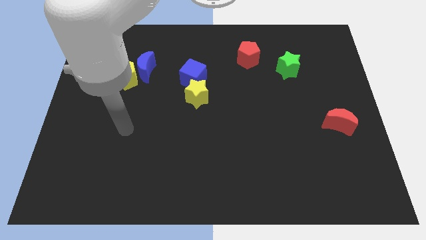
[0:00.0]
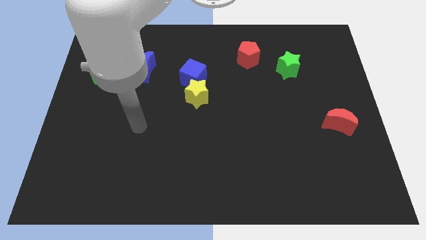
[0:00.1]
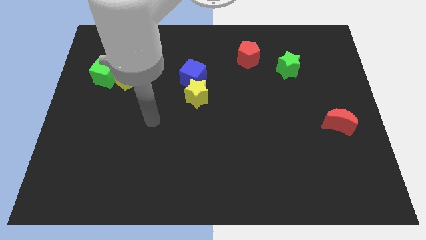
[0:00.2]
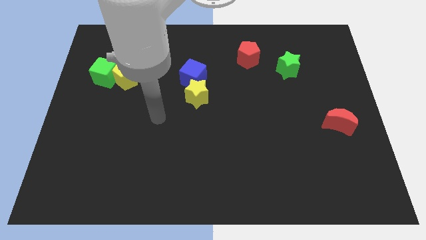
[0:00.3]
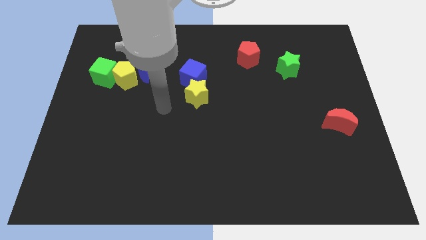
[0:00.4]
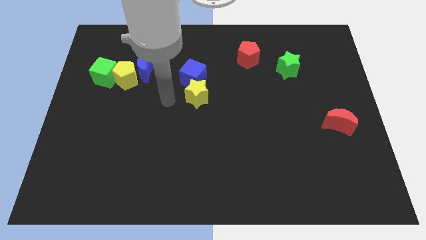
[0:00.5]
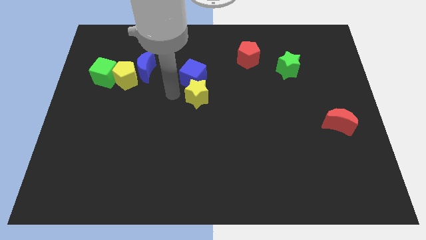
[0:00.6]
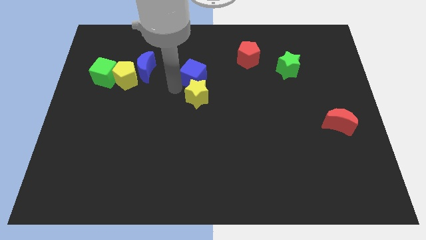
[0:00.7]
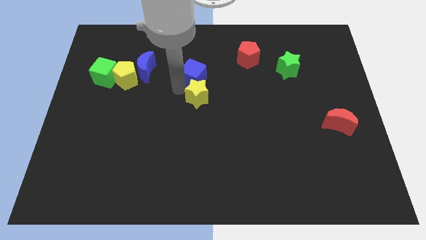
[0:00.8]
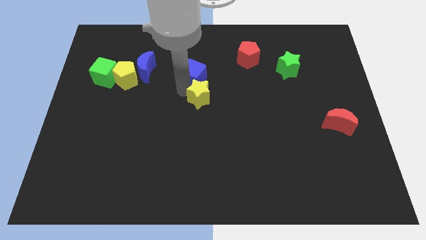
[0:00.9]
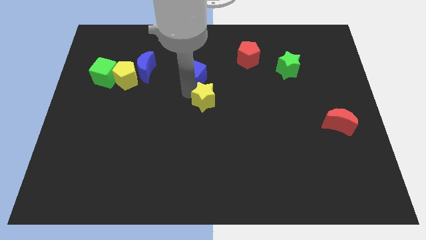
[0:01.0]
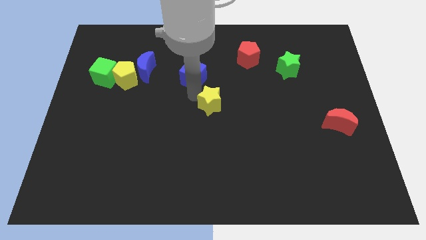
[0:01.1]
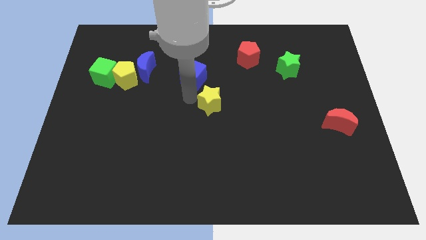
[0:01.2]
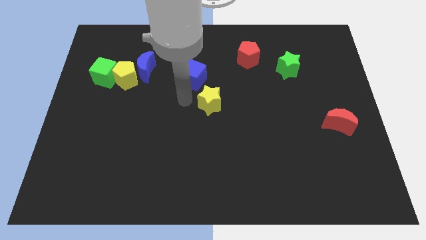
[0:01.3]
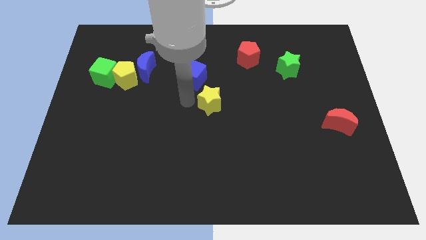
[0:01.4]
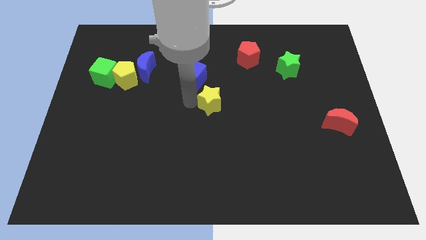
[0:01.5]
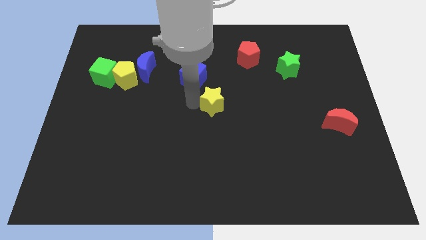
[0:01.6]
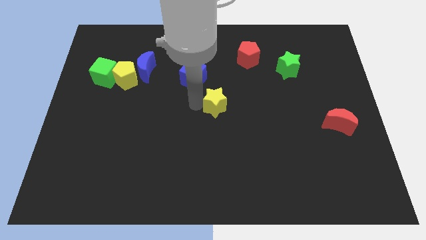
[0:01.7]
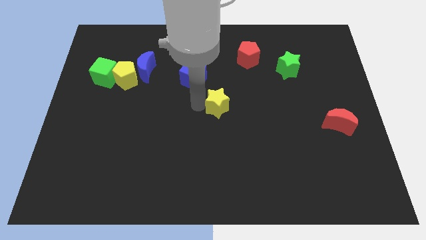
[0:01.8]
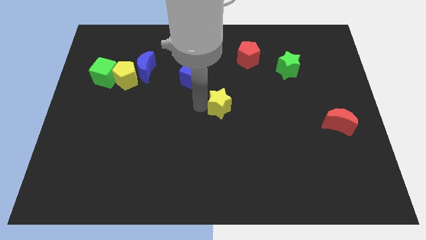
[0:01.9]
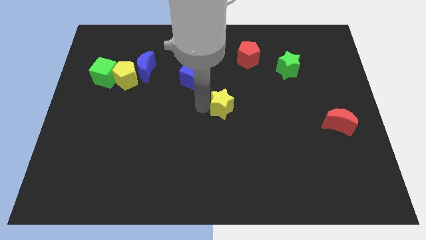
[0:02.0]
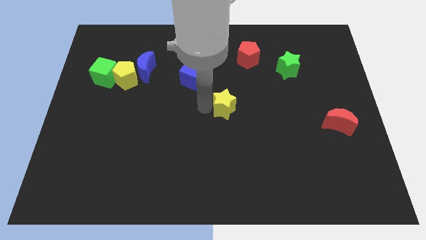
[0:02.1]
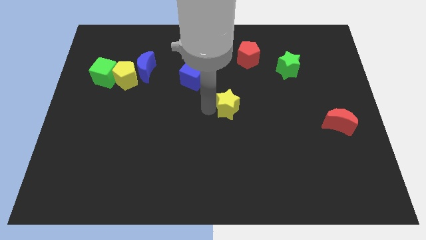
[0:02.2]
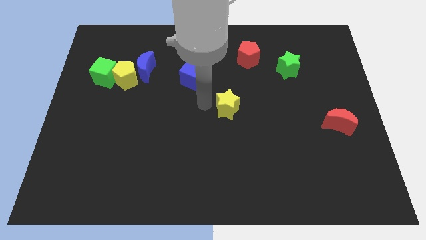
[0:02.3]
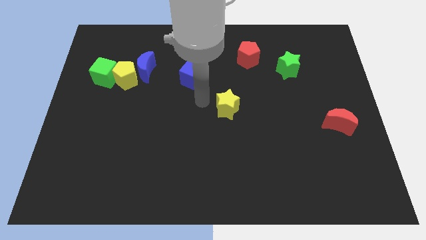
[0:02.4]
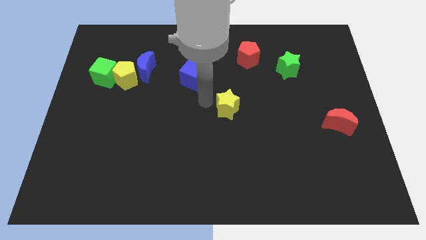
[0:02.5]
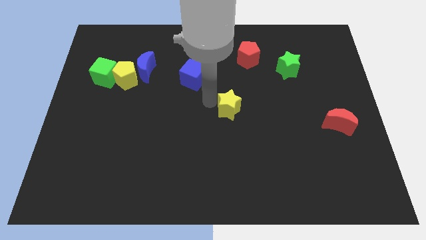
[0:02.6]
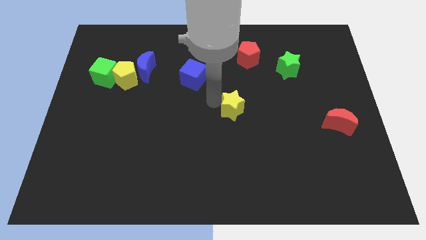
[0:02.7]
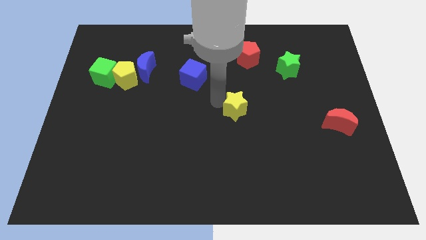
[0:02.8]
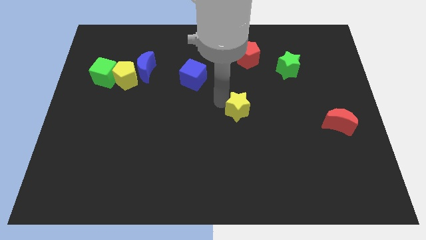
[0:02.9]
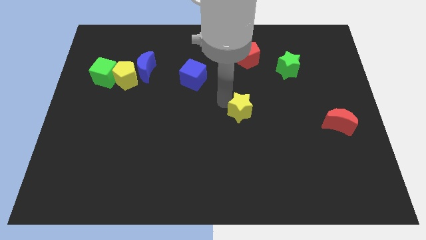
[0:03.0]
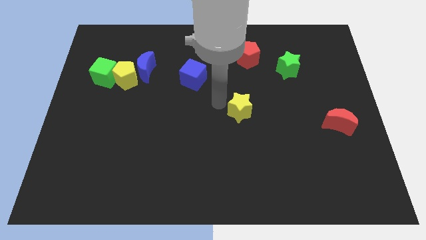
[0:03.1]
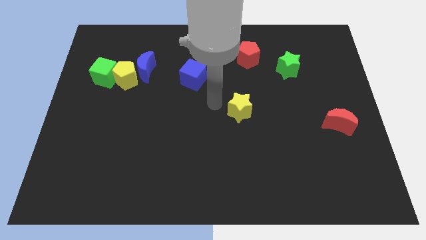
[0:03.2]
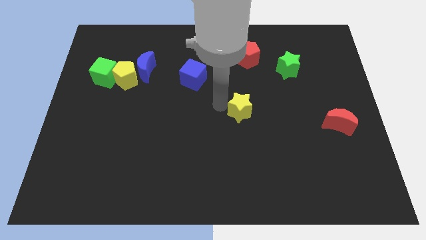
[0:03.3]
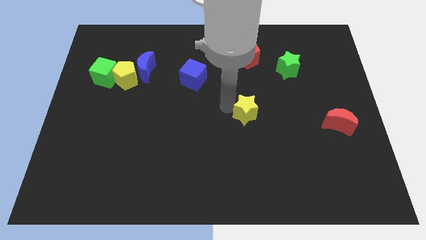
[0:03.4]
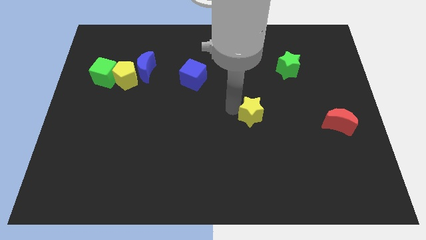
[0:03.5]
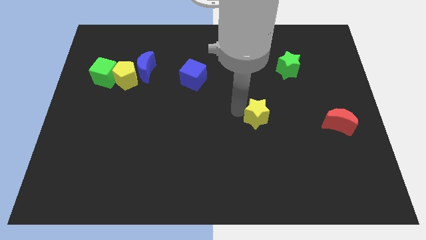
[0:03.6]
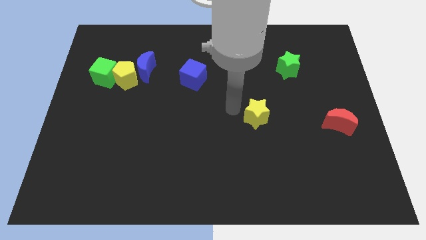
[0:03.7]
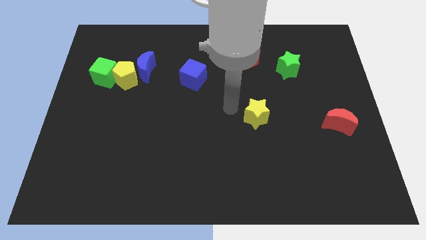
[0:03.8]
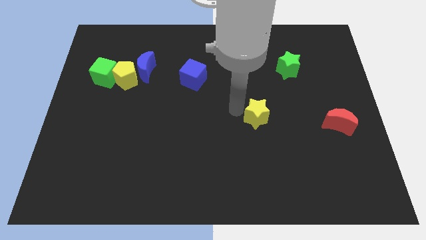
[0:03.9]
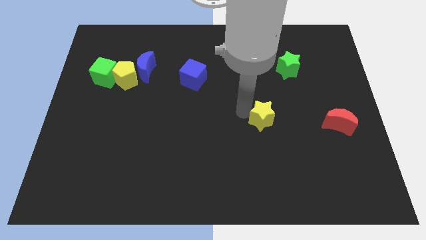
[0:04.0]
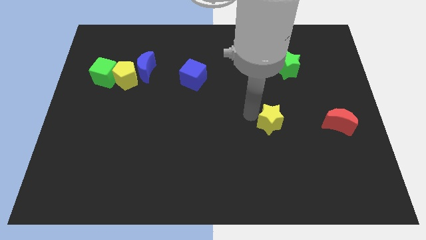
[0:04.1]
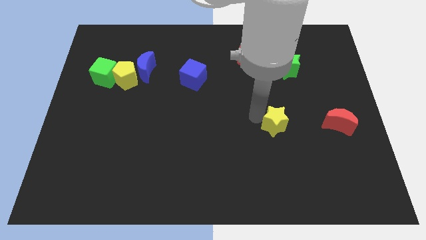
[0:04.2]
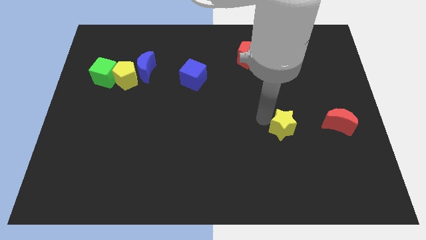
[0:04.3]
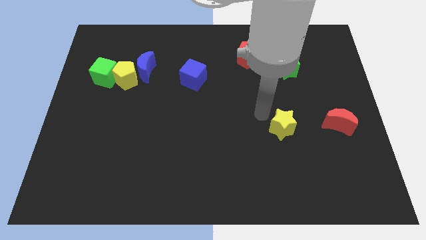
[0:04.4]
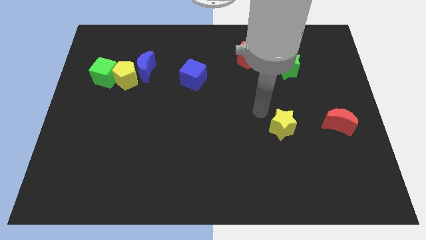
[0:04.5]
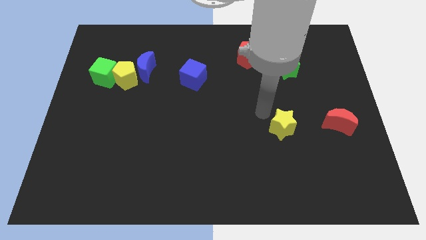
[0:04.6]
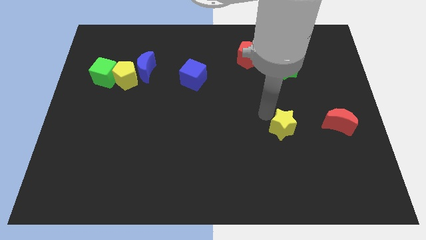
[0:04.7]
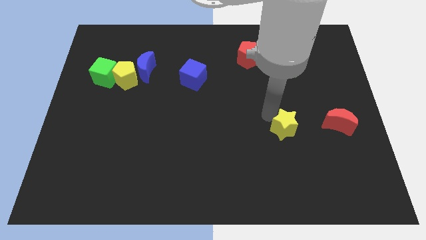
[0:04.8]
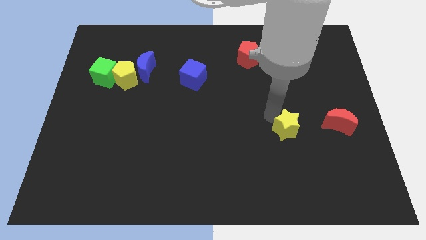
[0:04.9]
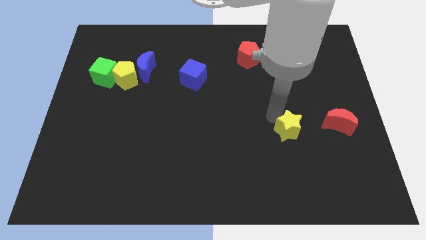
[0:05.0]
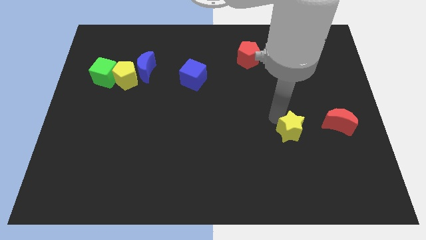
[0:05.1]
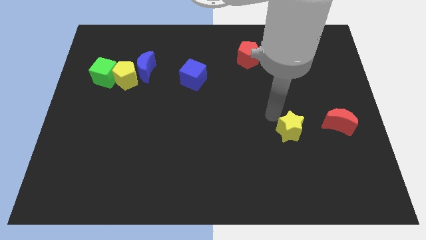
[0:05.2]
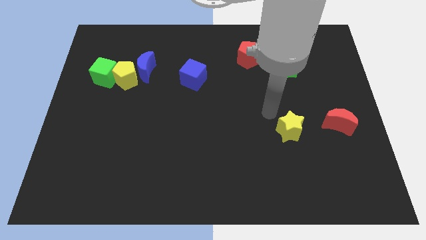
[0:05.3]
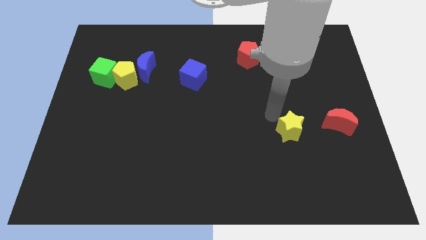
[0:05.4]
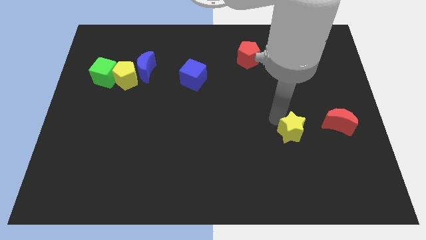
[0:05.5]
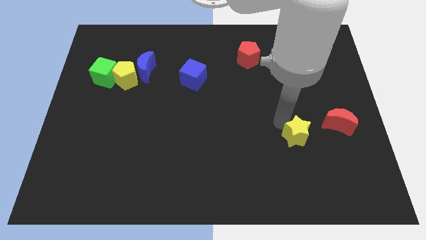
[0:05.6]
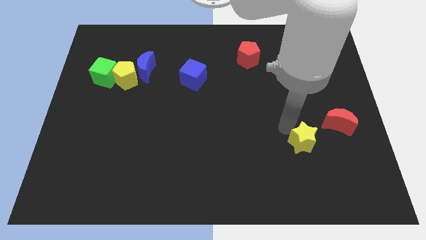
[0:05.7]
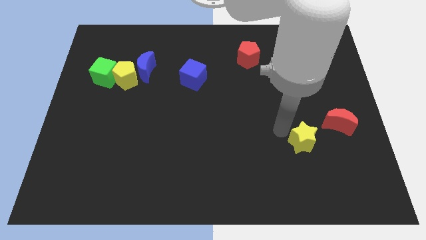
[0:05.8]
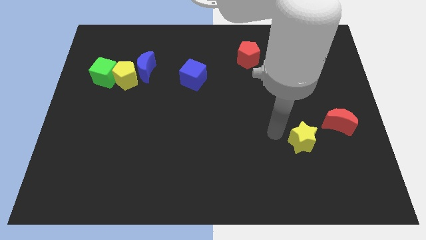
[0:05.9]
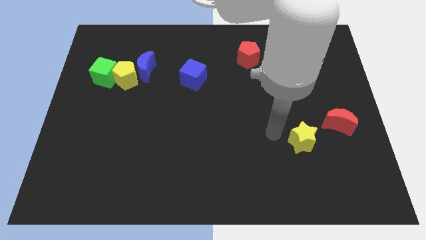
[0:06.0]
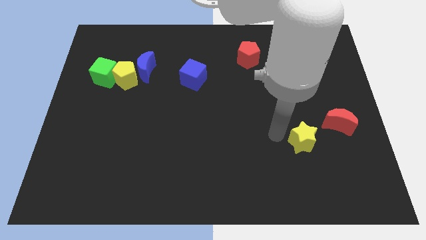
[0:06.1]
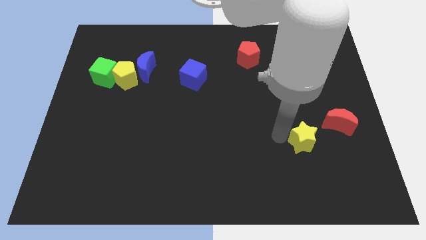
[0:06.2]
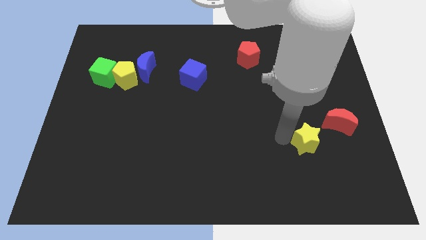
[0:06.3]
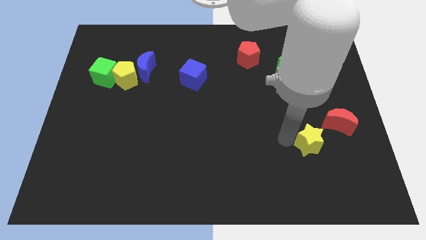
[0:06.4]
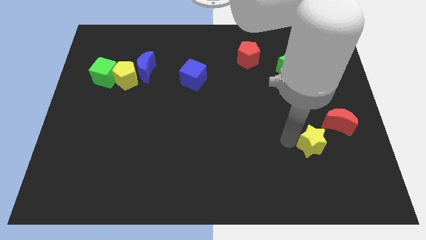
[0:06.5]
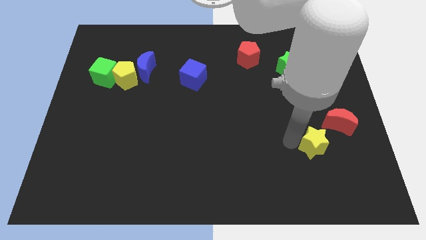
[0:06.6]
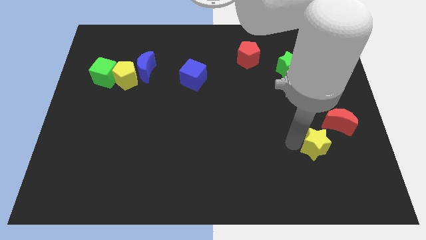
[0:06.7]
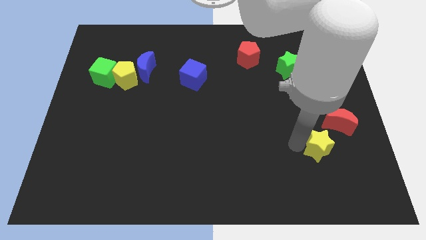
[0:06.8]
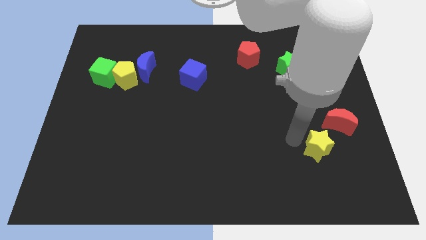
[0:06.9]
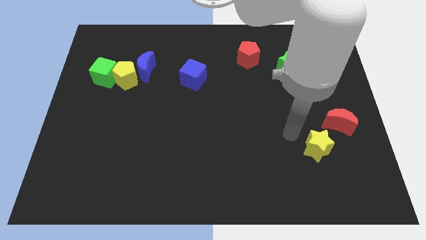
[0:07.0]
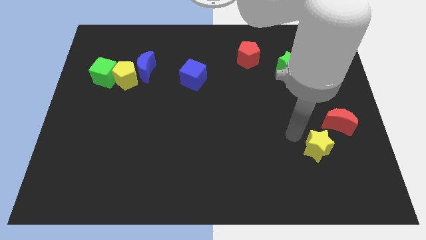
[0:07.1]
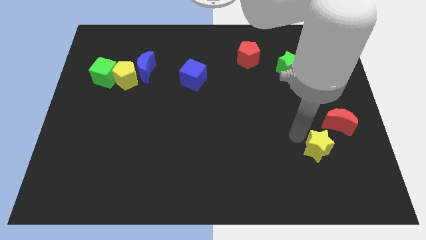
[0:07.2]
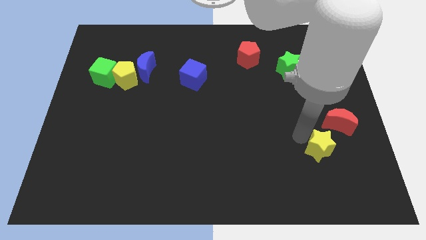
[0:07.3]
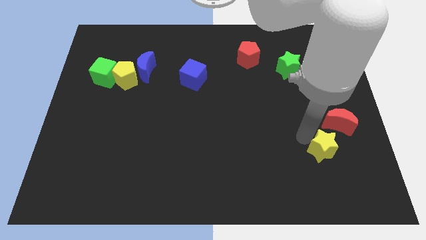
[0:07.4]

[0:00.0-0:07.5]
put the yellow star to the bottom of the red moon
